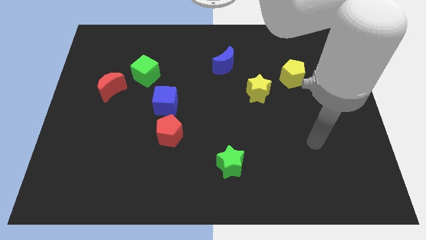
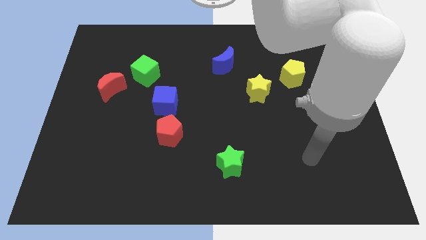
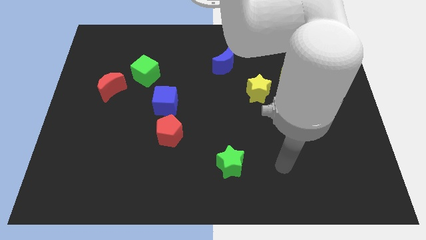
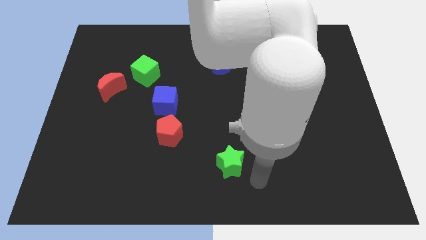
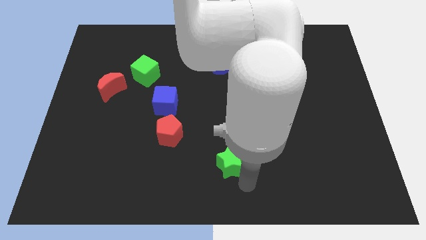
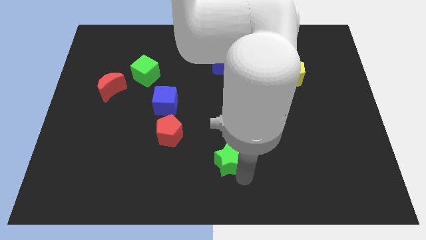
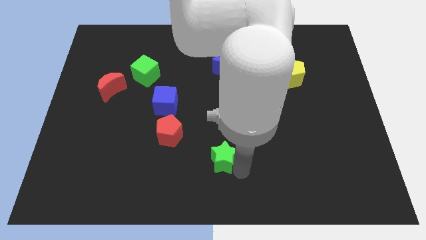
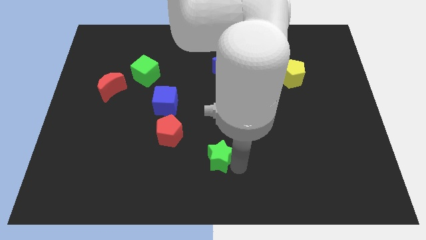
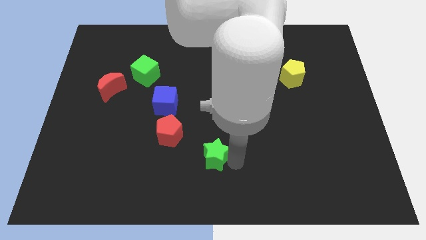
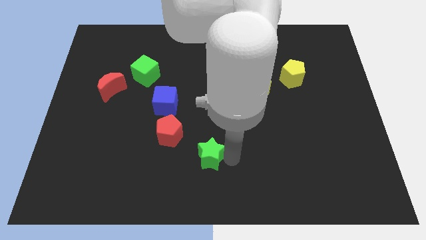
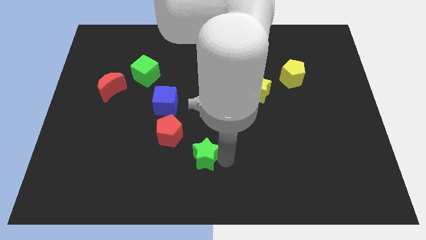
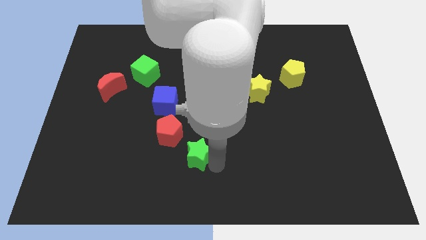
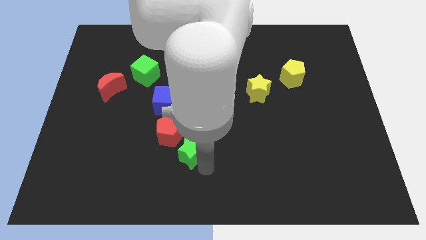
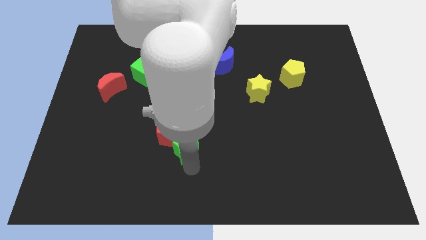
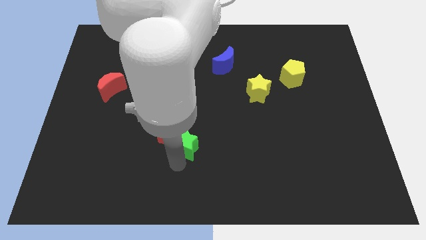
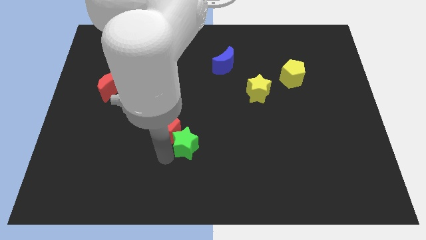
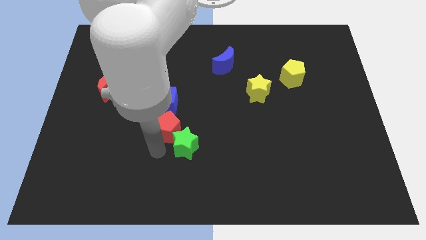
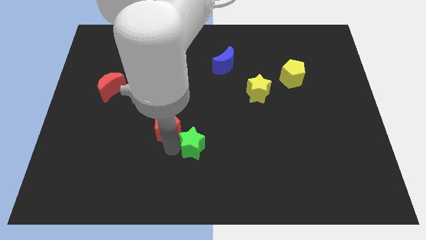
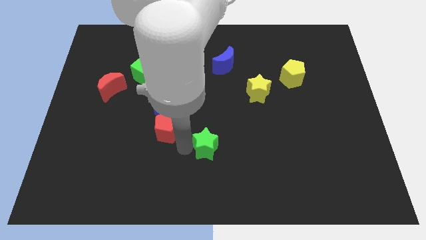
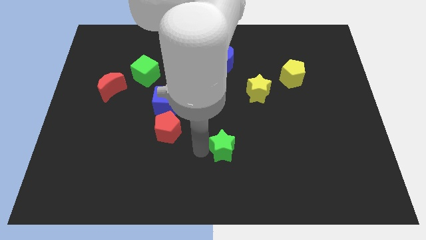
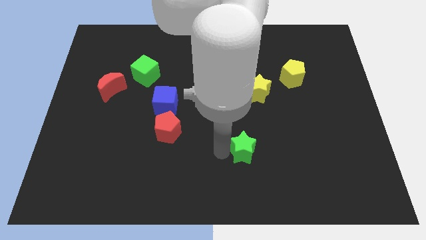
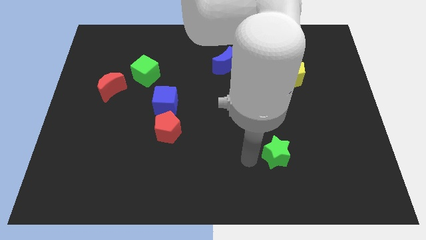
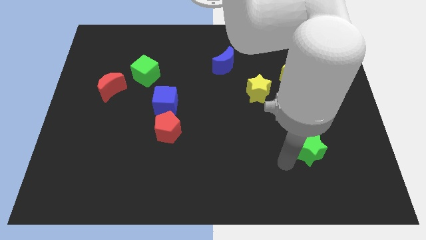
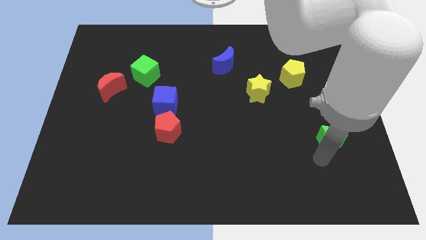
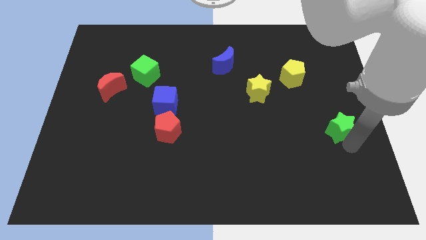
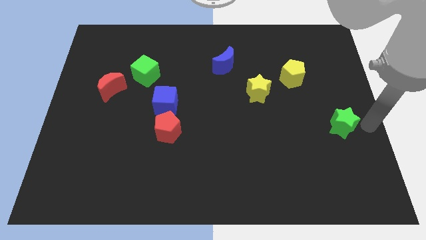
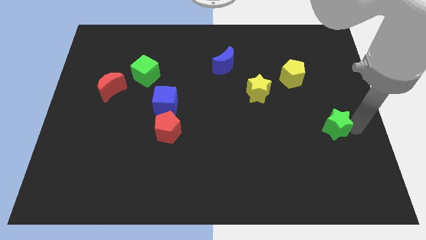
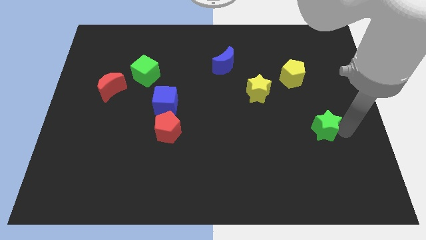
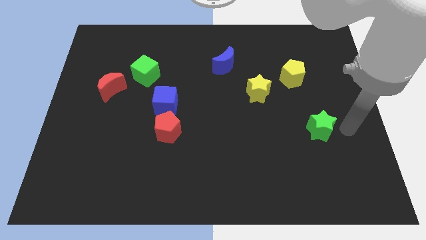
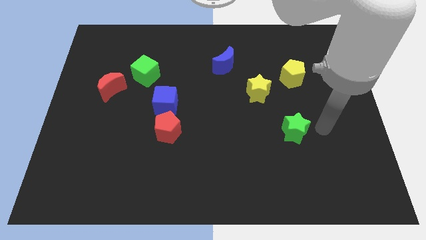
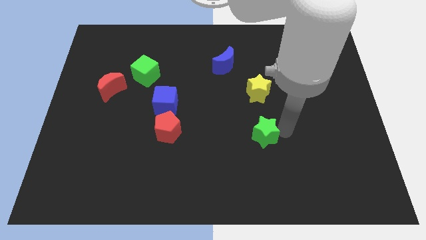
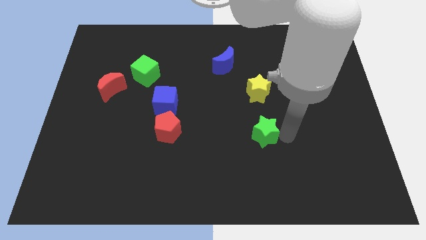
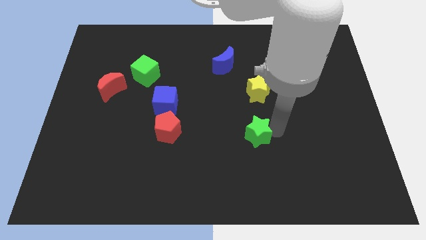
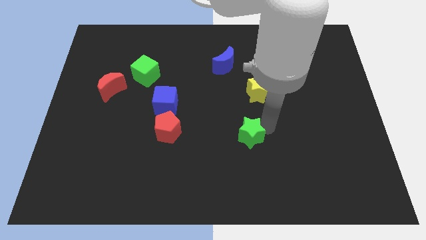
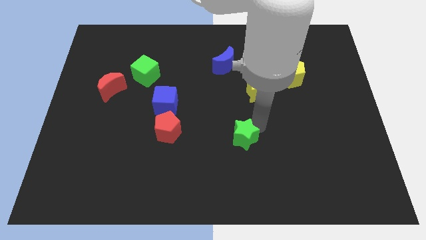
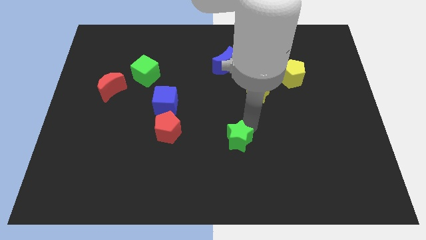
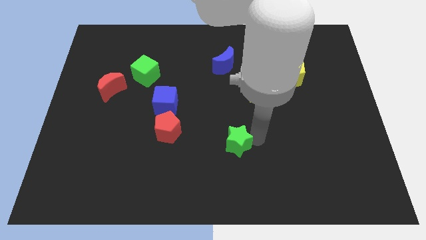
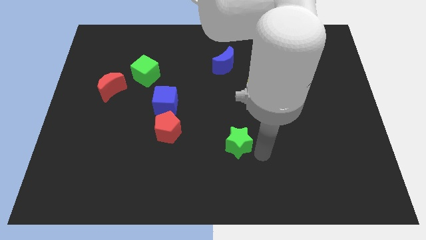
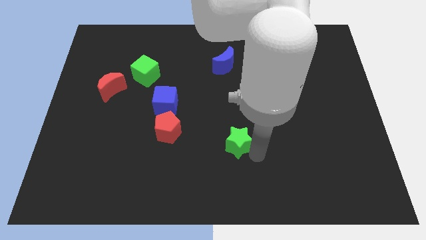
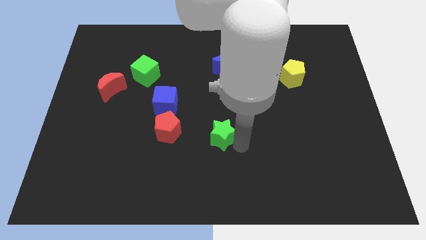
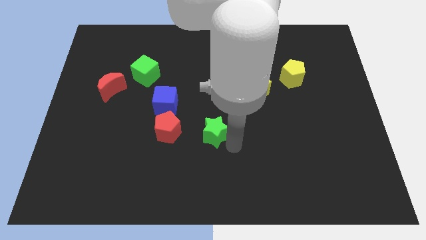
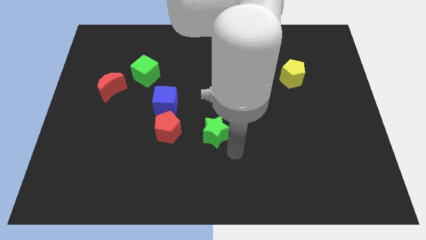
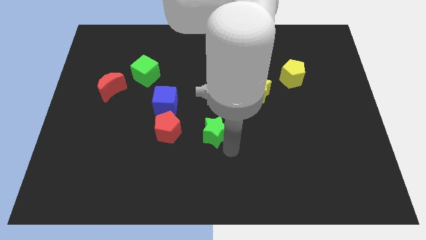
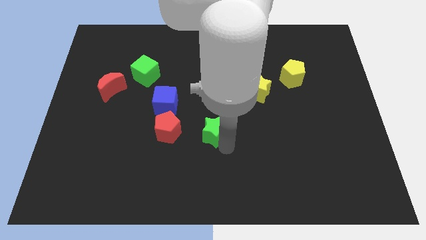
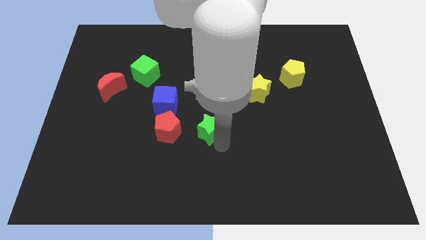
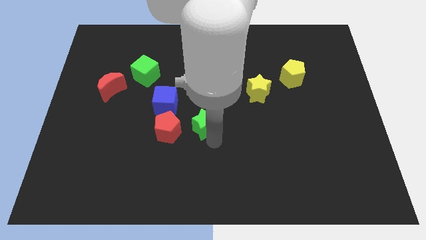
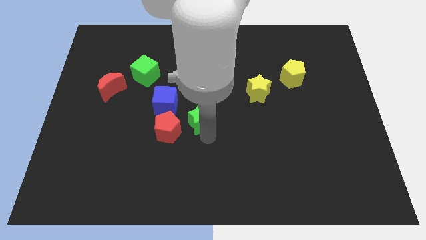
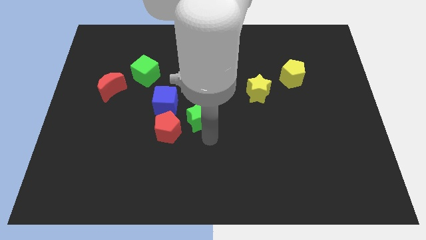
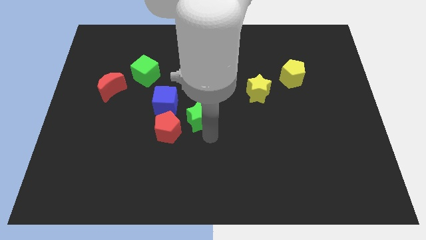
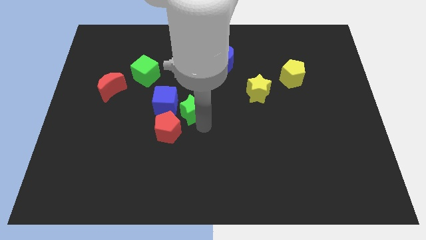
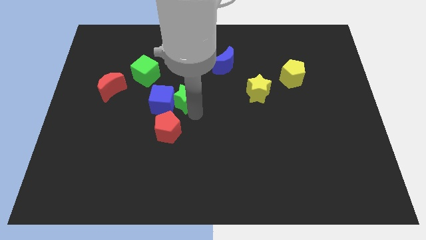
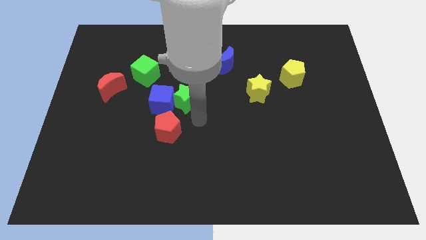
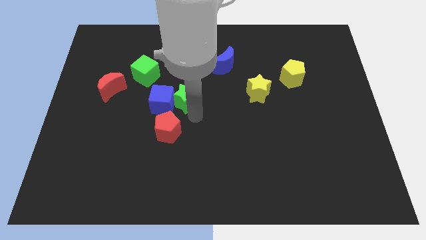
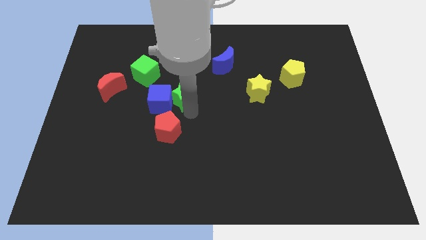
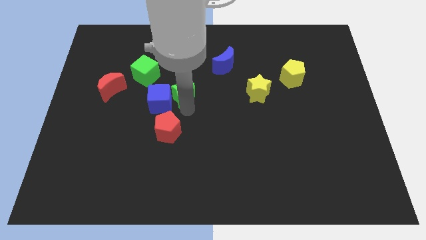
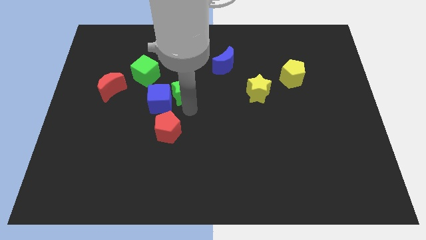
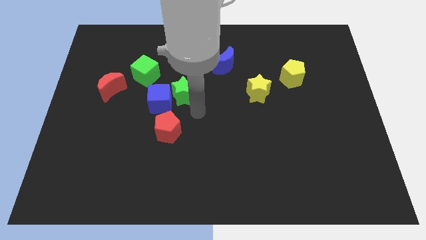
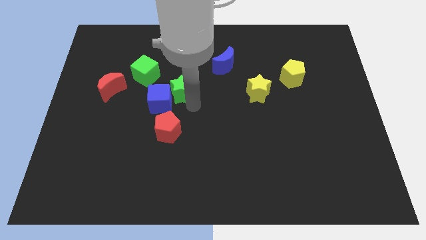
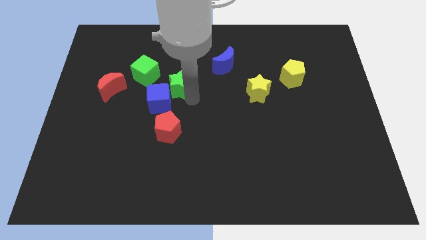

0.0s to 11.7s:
put the green star to the top of the blue cube

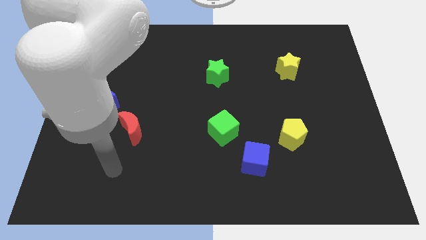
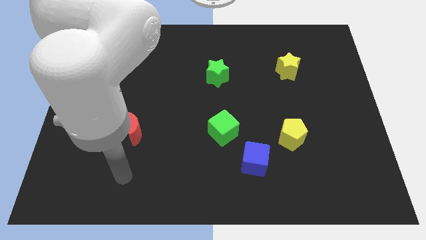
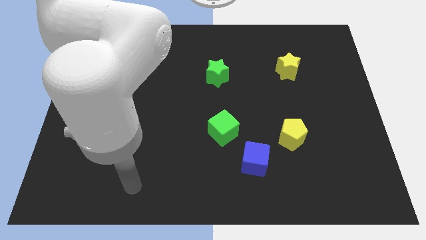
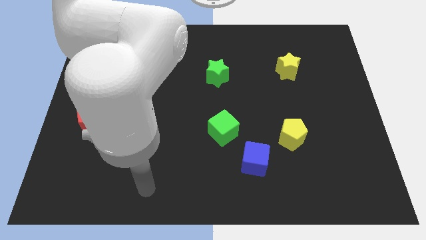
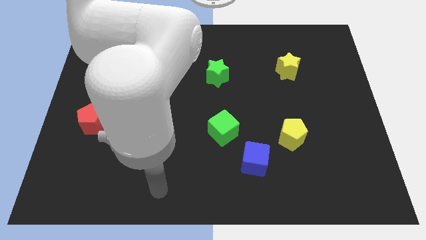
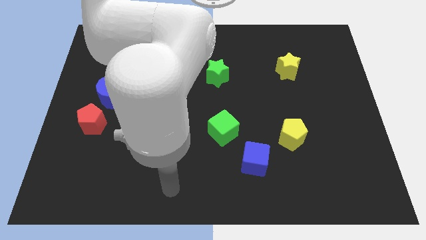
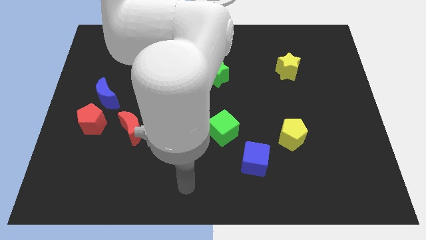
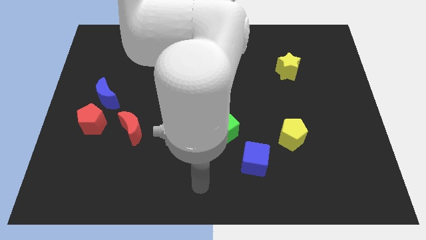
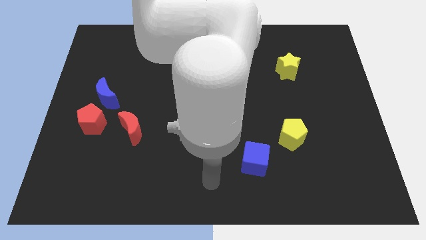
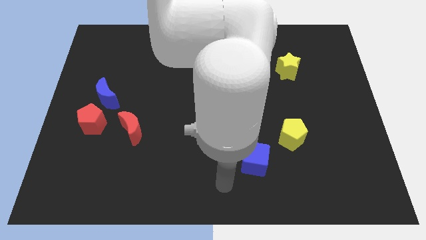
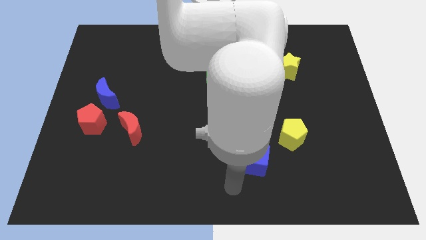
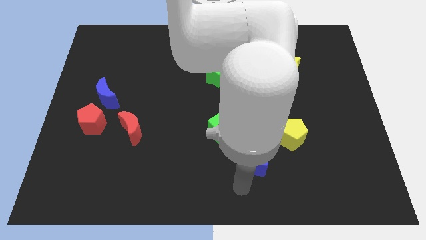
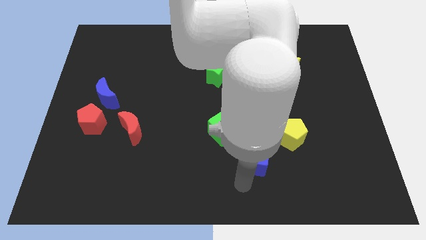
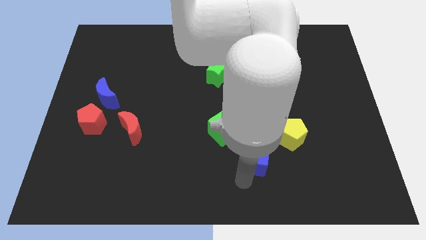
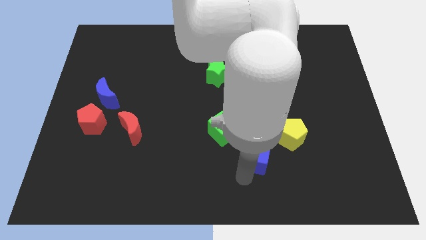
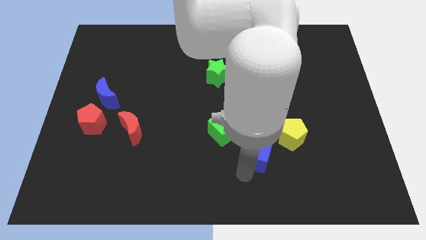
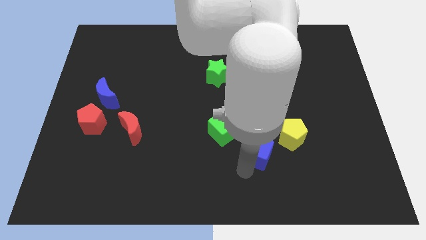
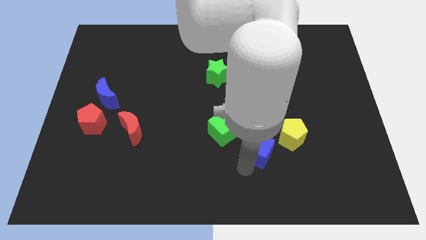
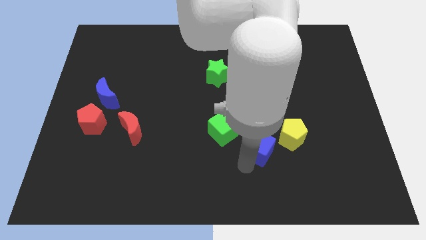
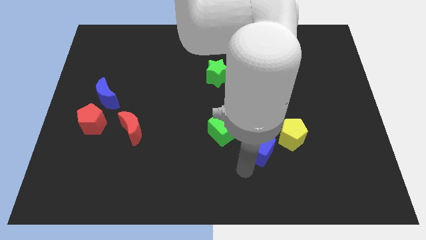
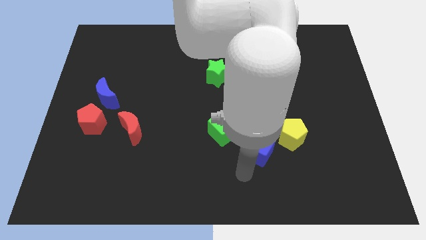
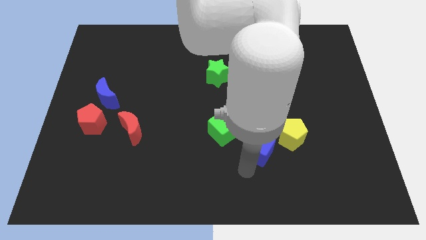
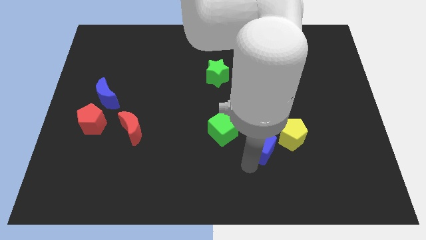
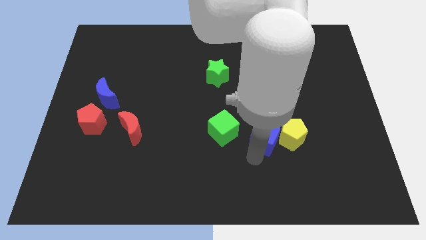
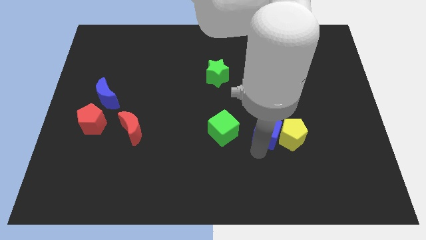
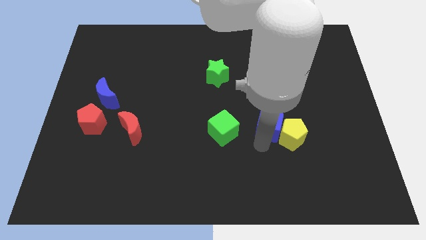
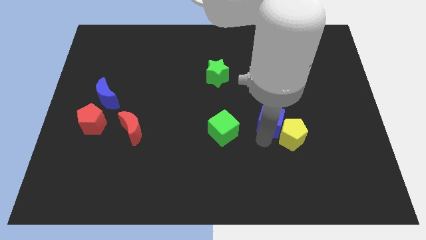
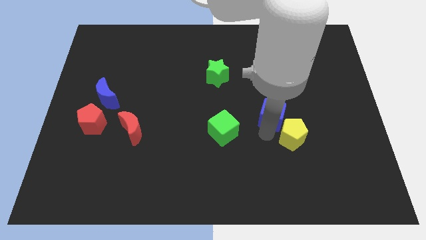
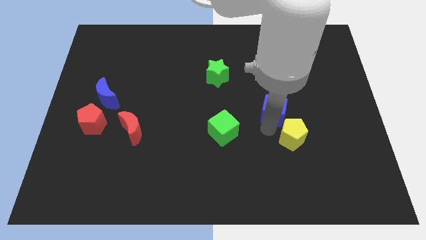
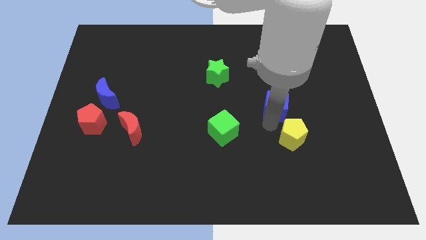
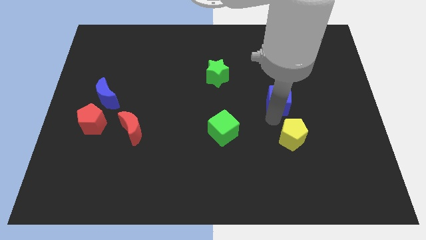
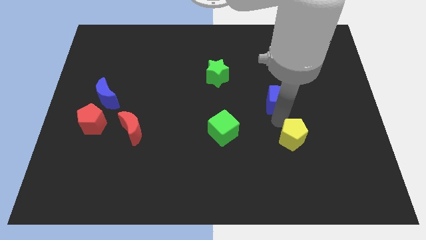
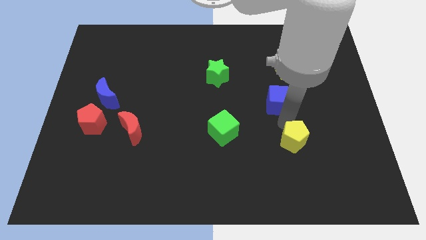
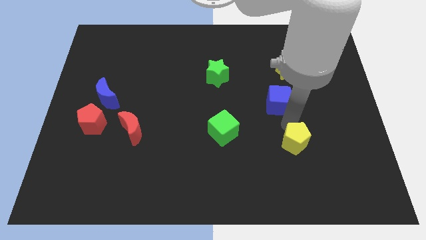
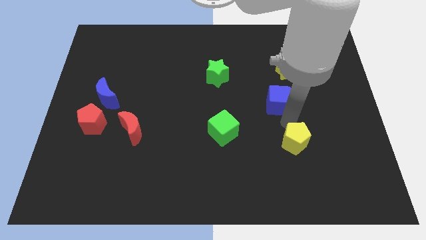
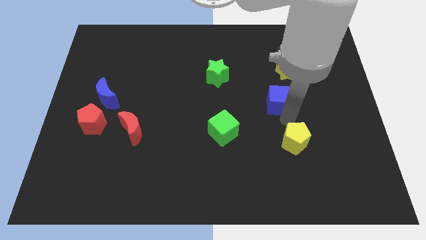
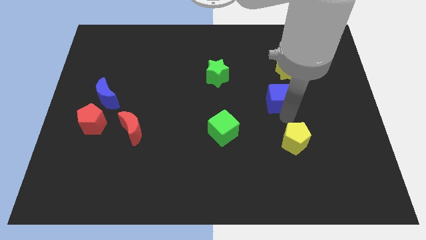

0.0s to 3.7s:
slide the blue cube to the bottom left of the yellow star
